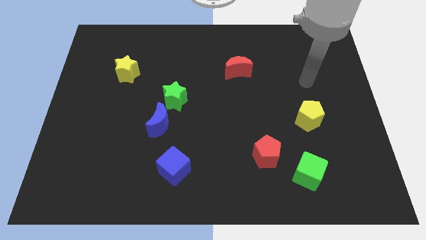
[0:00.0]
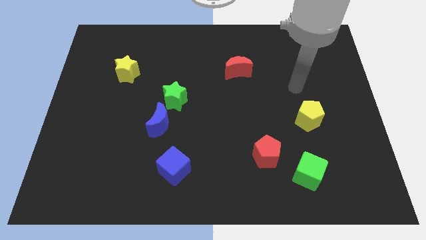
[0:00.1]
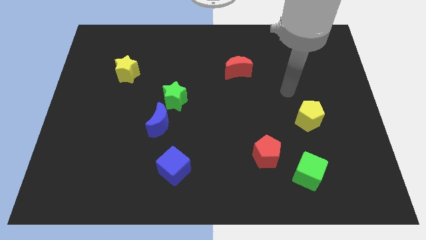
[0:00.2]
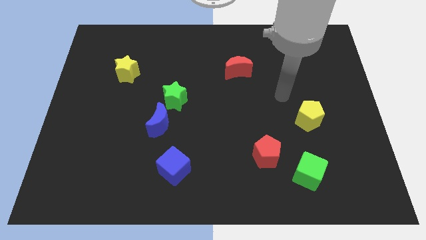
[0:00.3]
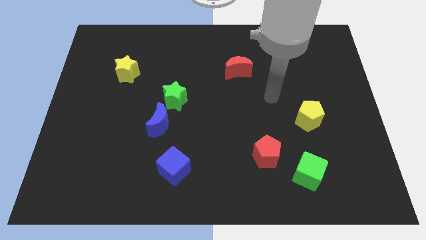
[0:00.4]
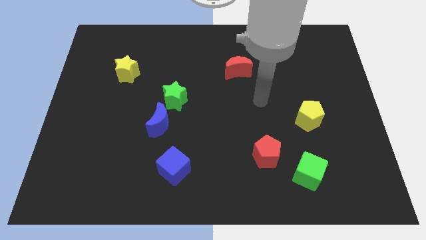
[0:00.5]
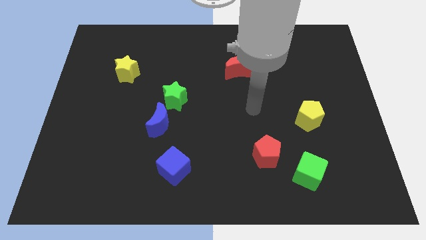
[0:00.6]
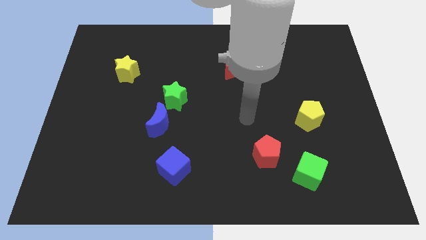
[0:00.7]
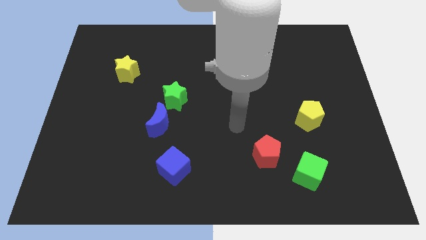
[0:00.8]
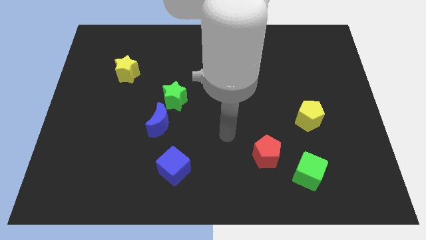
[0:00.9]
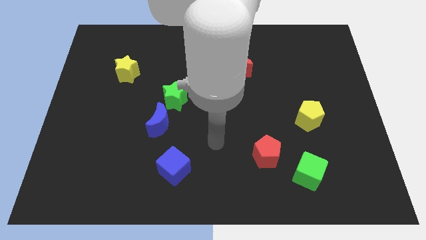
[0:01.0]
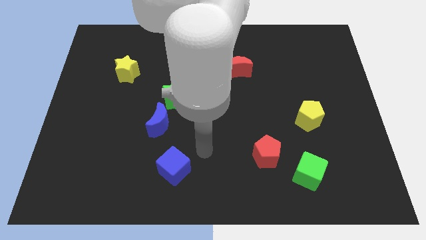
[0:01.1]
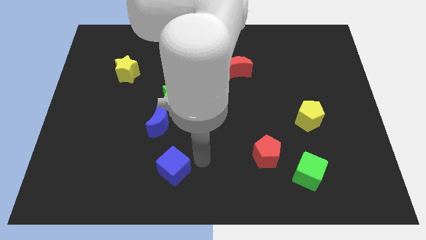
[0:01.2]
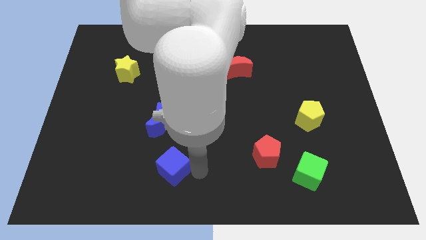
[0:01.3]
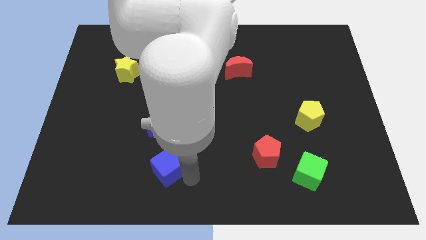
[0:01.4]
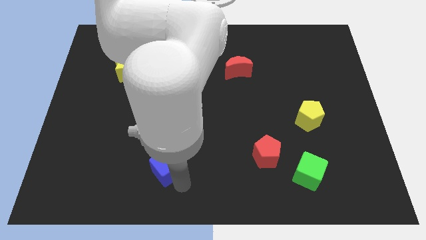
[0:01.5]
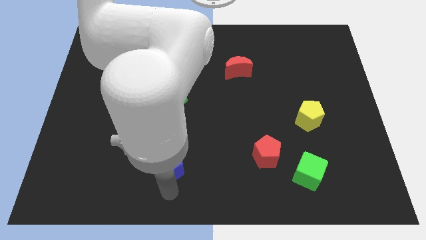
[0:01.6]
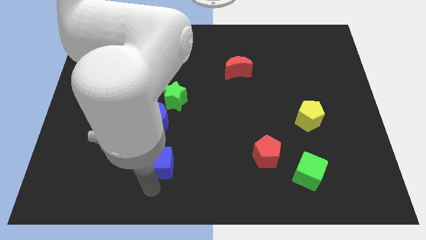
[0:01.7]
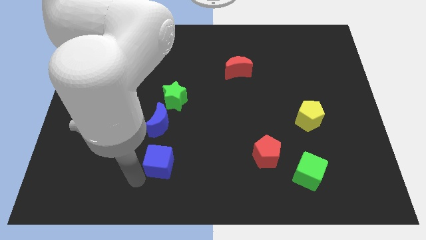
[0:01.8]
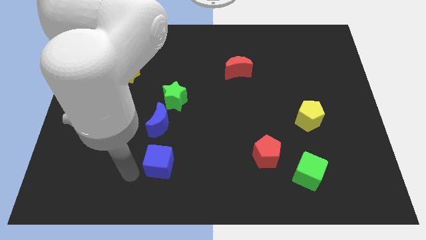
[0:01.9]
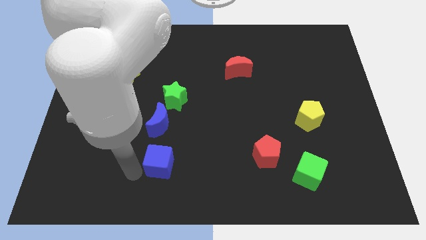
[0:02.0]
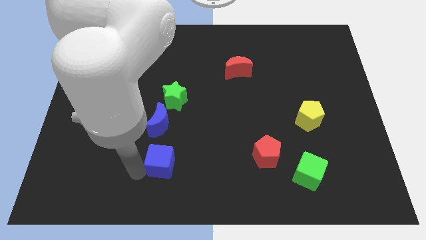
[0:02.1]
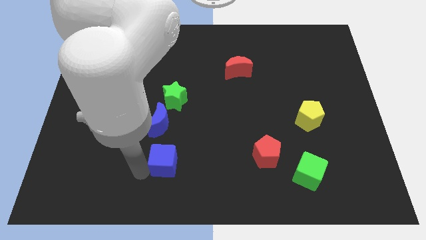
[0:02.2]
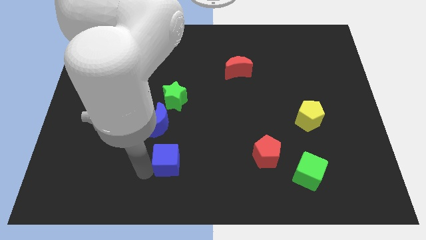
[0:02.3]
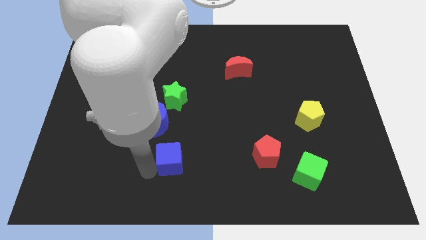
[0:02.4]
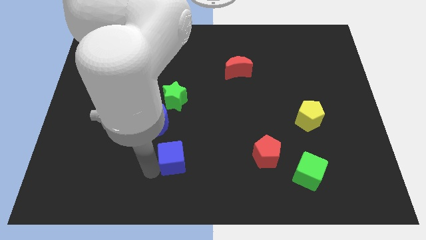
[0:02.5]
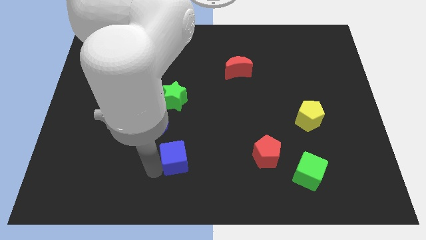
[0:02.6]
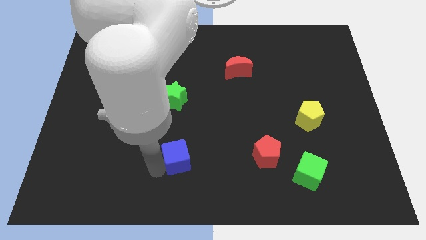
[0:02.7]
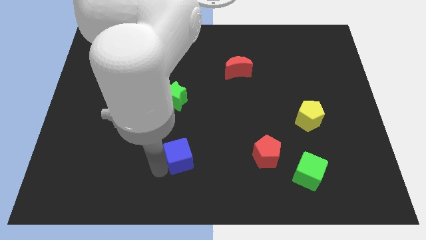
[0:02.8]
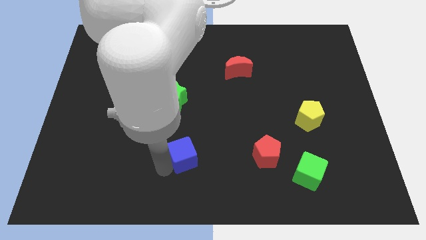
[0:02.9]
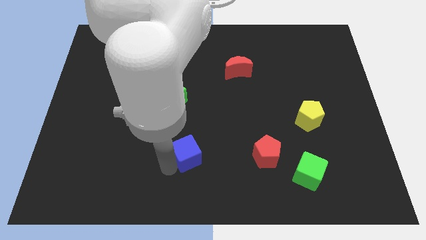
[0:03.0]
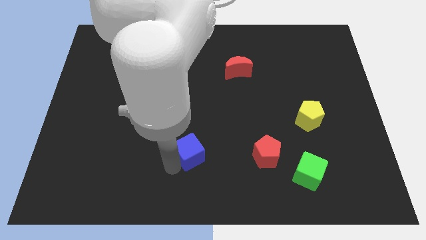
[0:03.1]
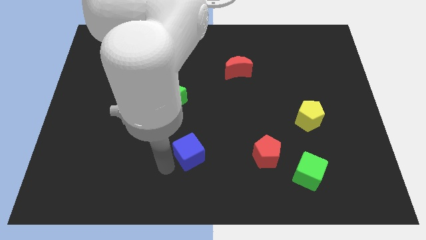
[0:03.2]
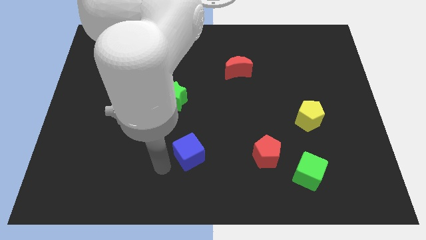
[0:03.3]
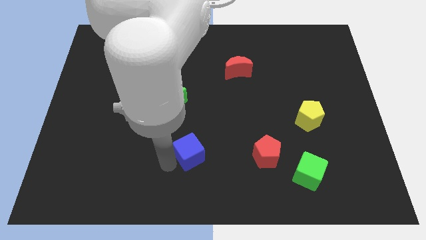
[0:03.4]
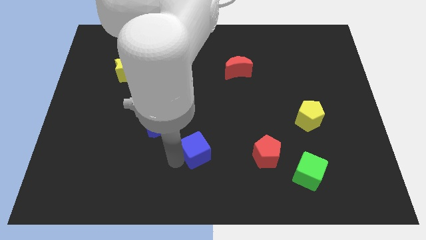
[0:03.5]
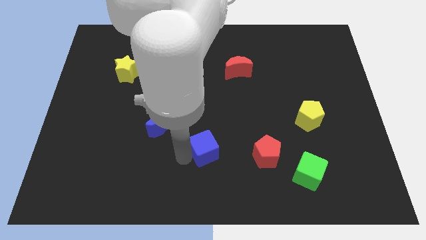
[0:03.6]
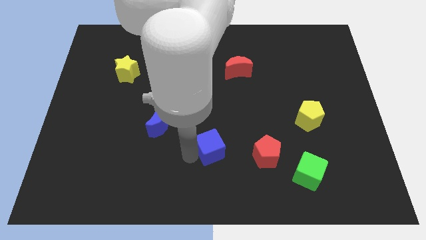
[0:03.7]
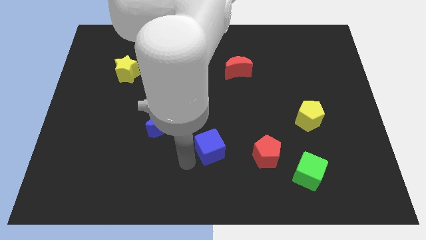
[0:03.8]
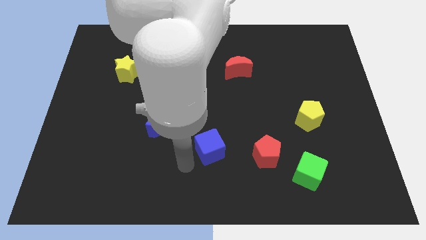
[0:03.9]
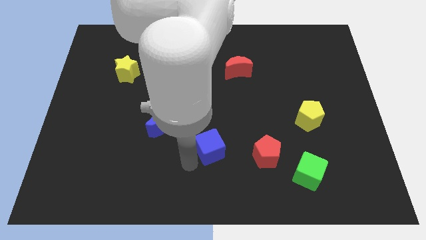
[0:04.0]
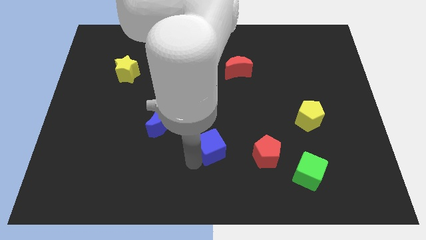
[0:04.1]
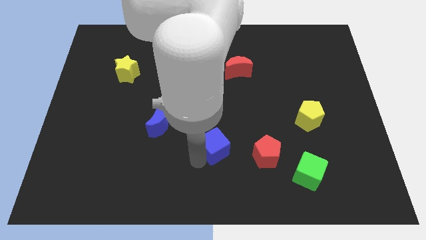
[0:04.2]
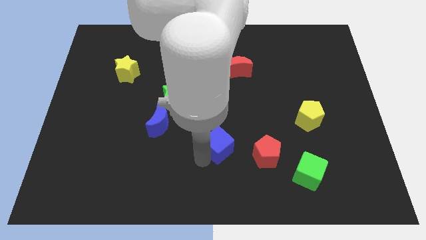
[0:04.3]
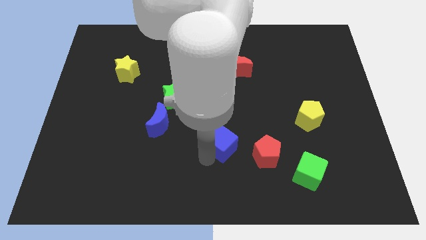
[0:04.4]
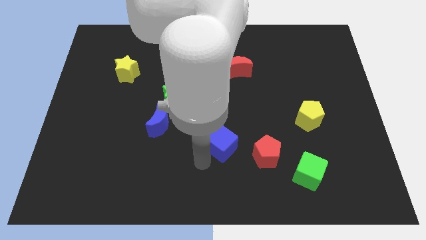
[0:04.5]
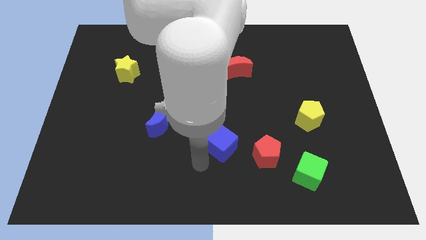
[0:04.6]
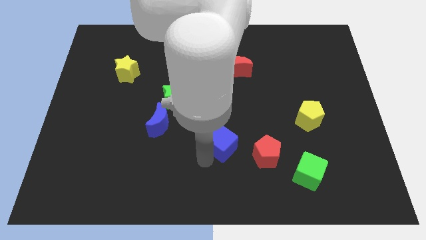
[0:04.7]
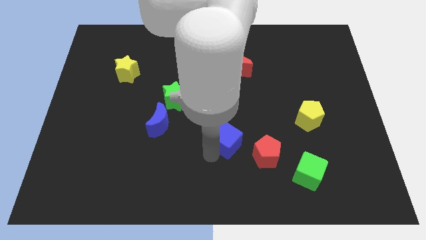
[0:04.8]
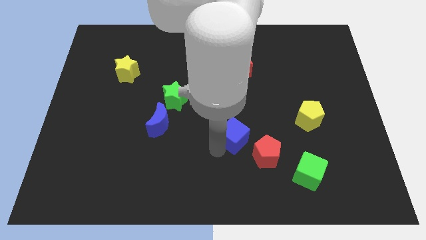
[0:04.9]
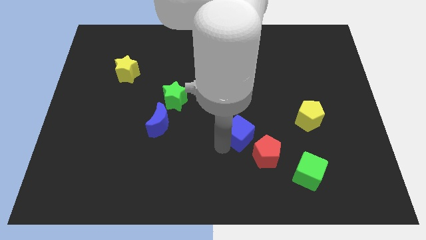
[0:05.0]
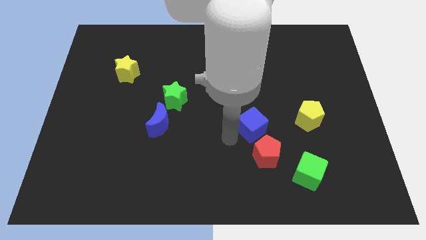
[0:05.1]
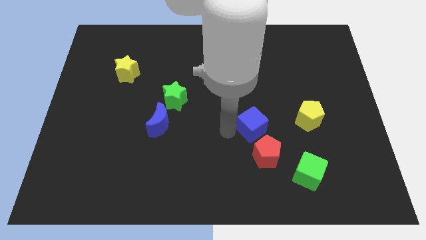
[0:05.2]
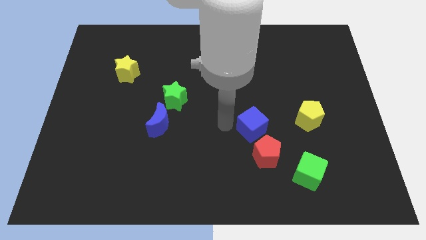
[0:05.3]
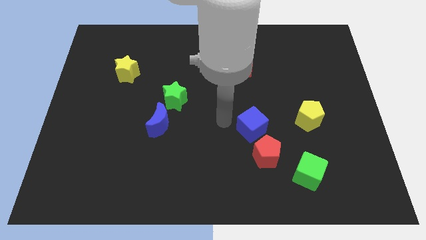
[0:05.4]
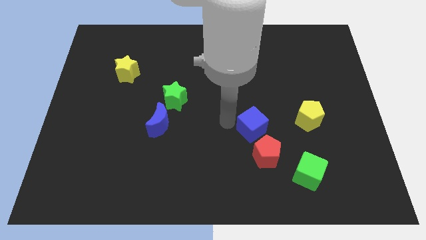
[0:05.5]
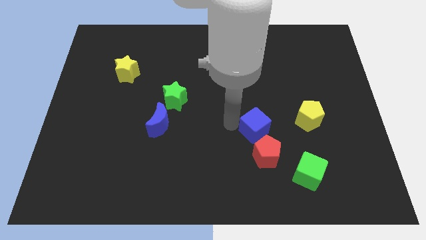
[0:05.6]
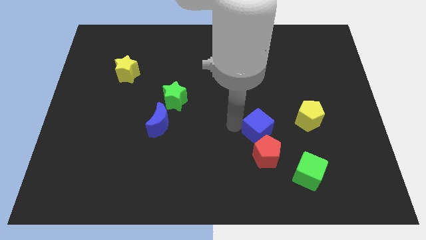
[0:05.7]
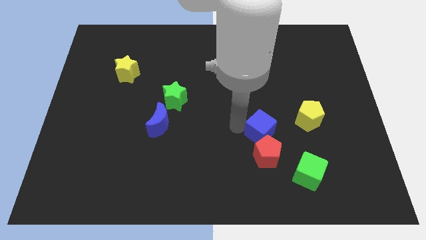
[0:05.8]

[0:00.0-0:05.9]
move the blue cube to the top right side of the red pentagon

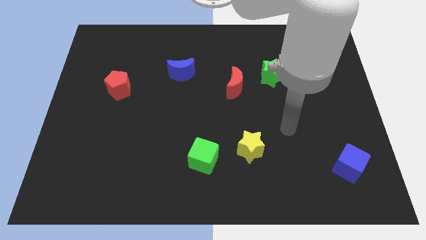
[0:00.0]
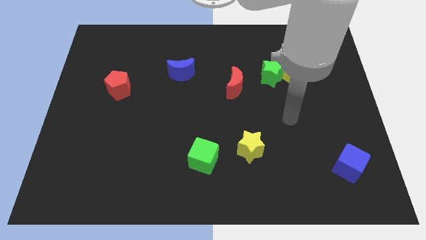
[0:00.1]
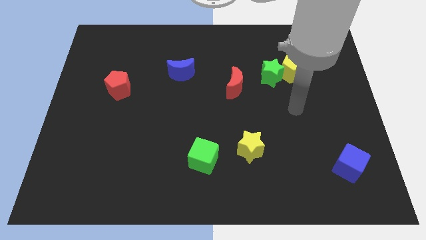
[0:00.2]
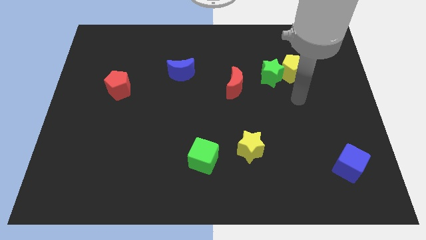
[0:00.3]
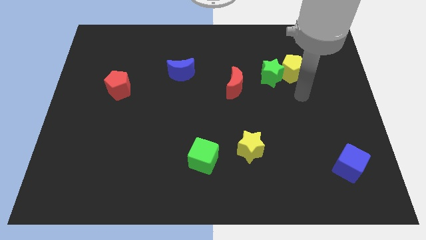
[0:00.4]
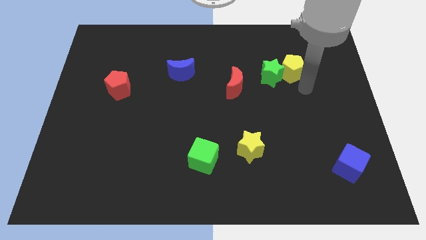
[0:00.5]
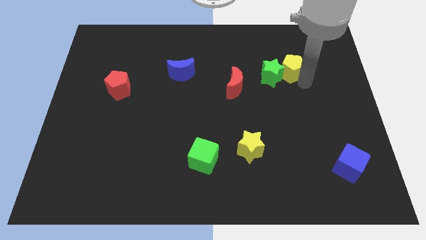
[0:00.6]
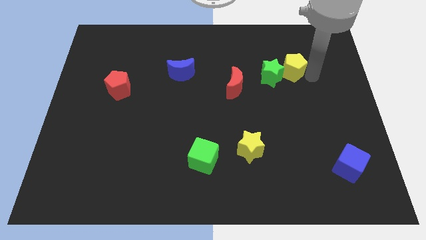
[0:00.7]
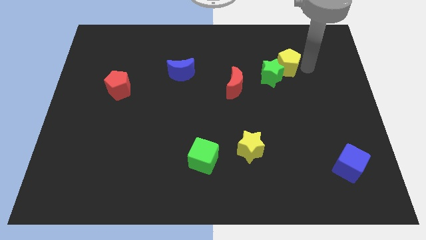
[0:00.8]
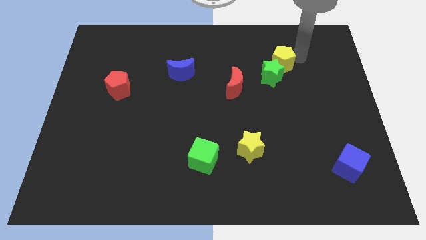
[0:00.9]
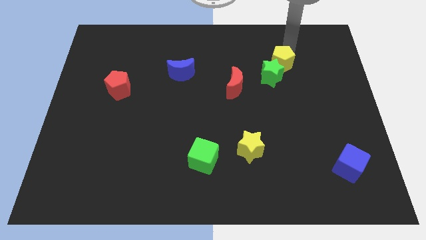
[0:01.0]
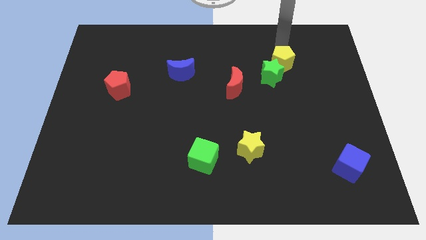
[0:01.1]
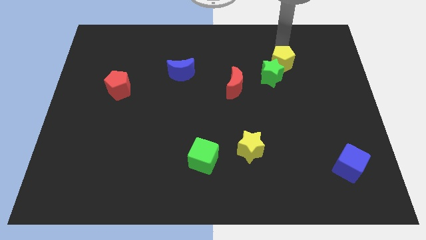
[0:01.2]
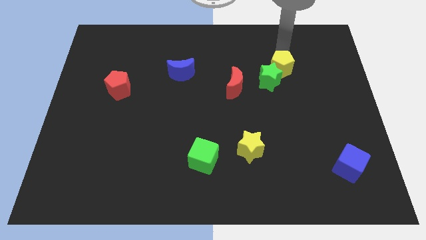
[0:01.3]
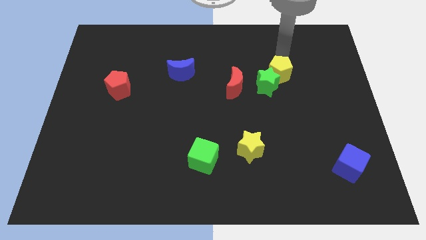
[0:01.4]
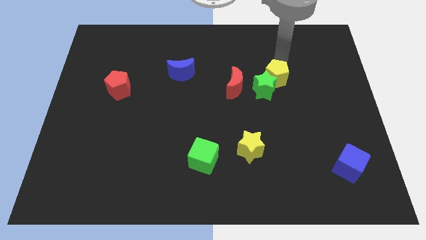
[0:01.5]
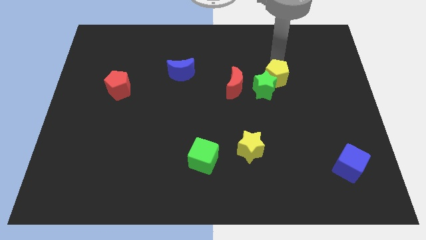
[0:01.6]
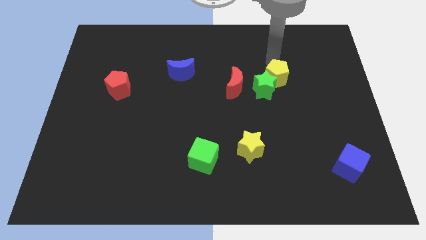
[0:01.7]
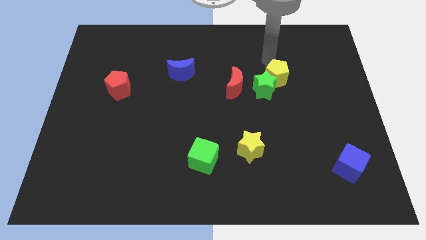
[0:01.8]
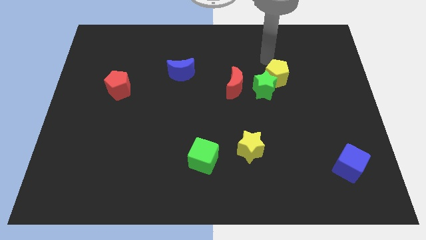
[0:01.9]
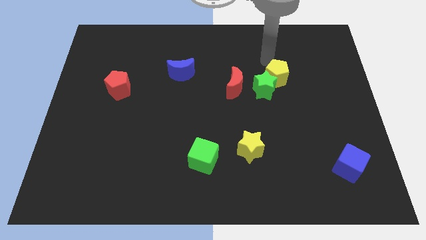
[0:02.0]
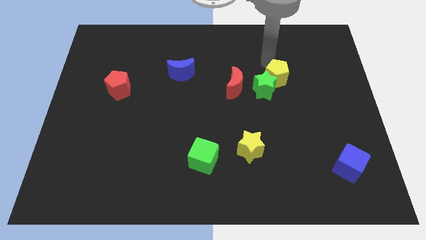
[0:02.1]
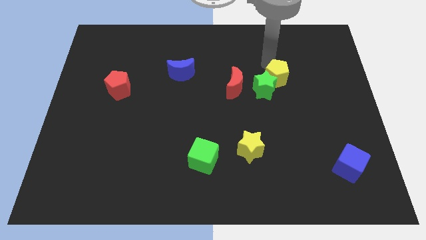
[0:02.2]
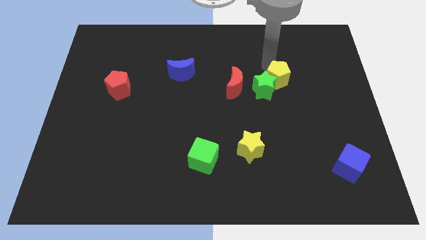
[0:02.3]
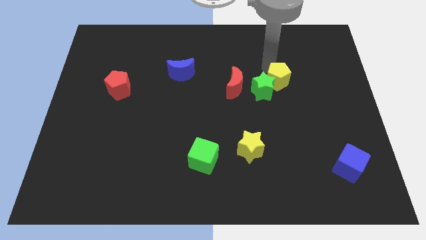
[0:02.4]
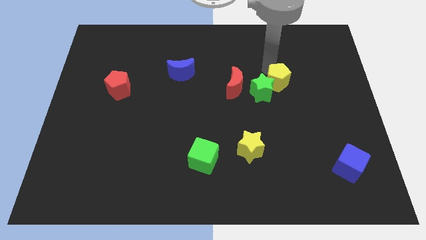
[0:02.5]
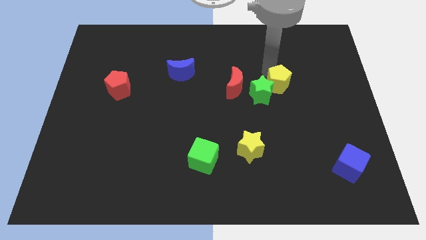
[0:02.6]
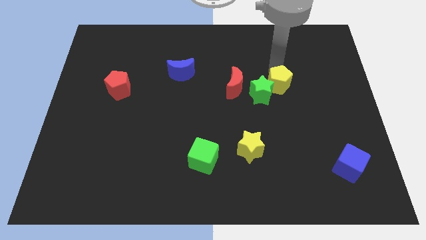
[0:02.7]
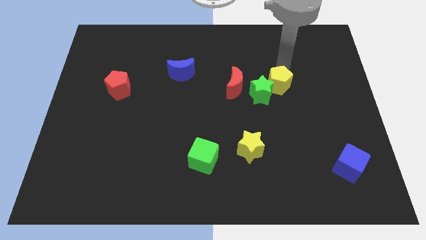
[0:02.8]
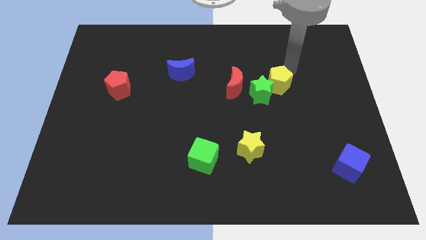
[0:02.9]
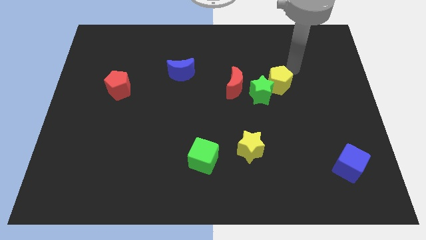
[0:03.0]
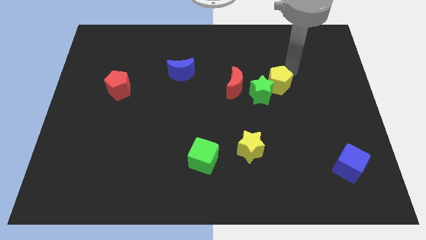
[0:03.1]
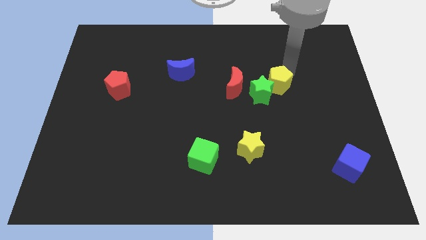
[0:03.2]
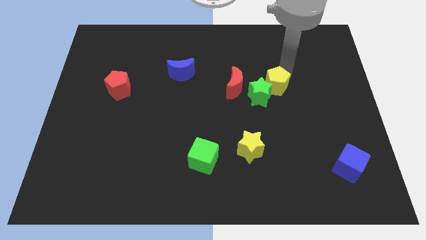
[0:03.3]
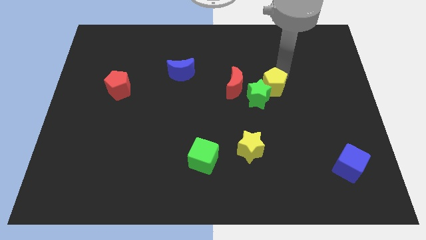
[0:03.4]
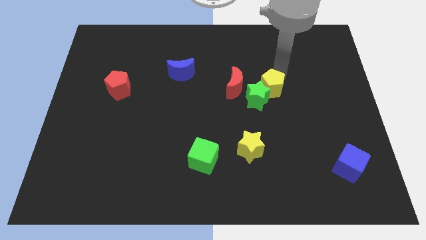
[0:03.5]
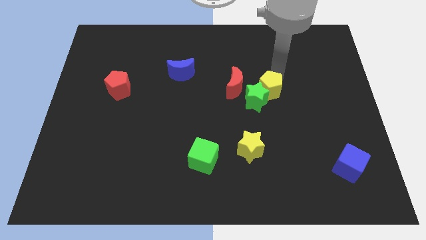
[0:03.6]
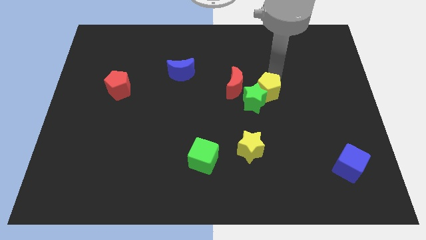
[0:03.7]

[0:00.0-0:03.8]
move the yellow pentagon to the bottom right of the red moon
